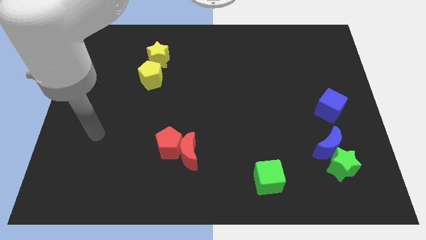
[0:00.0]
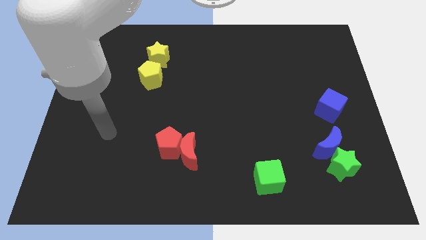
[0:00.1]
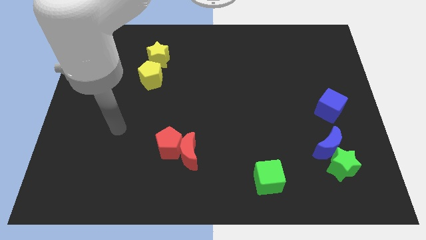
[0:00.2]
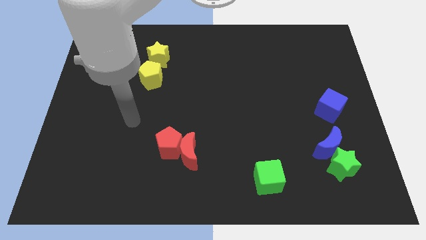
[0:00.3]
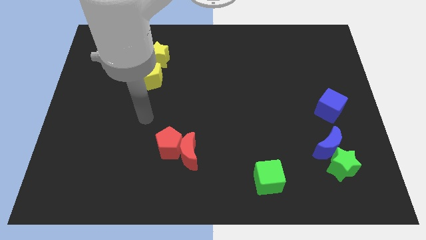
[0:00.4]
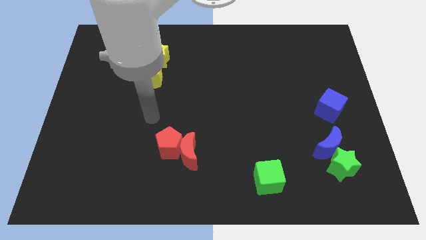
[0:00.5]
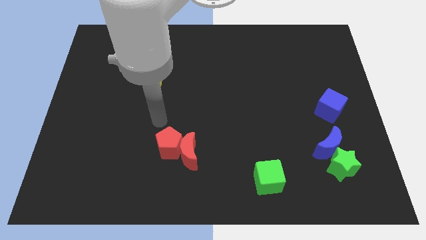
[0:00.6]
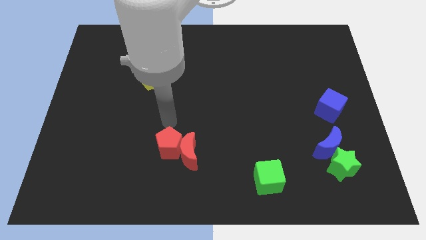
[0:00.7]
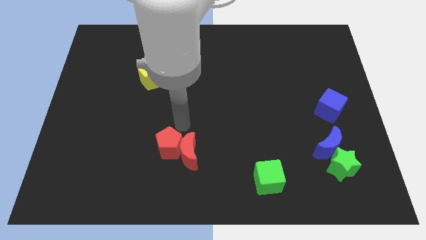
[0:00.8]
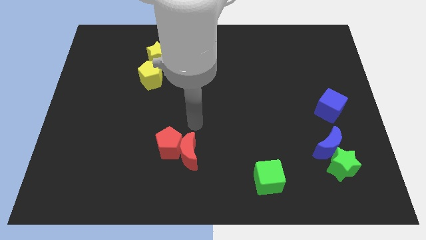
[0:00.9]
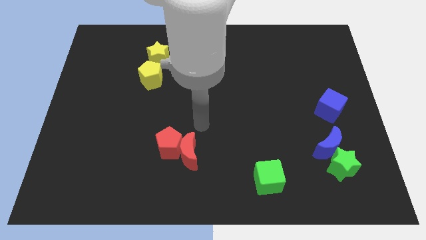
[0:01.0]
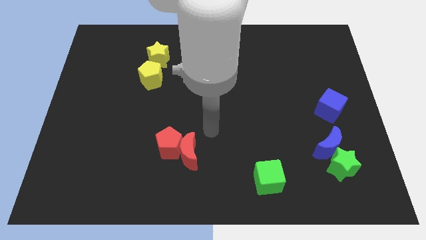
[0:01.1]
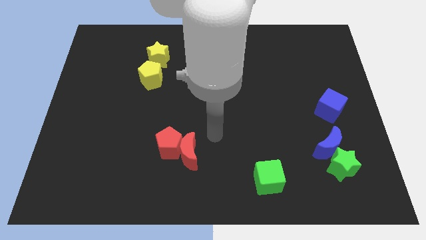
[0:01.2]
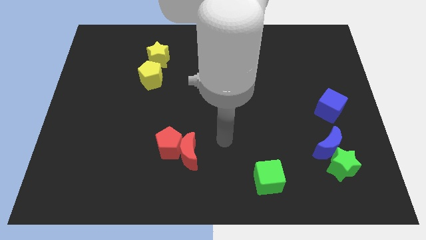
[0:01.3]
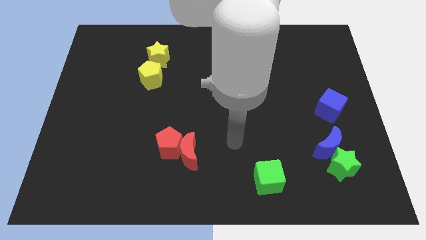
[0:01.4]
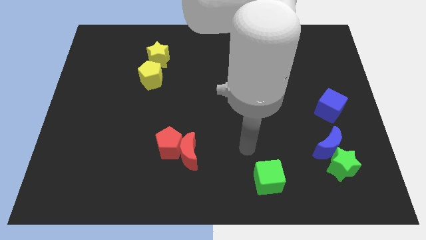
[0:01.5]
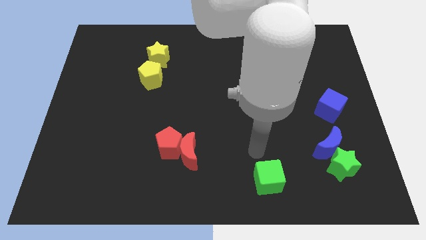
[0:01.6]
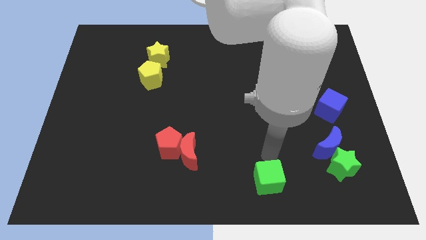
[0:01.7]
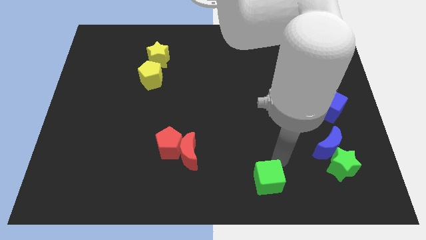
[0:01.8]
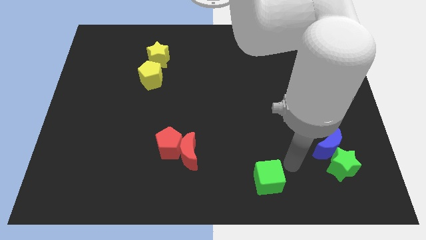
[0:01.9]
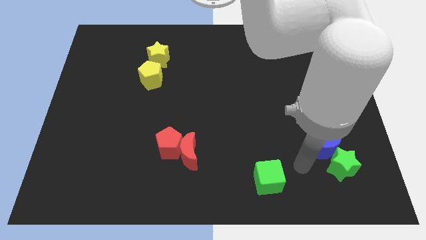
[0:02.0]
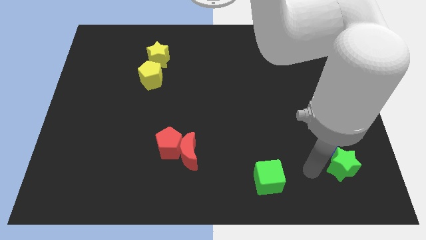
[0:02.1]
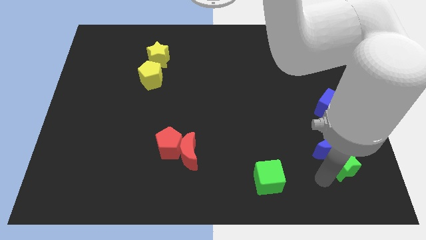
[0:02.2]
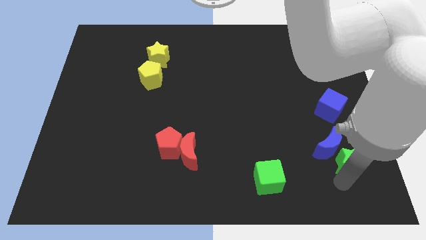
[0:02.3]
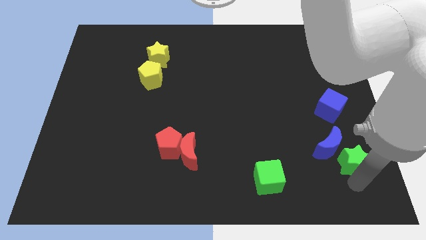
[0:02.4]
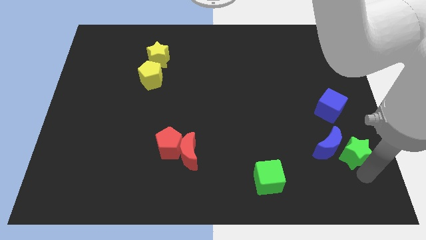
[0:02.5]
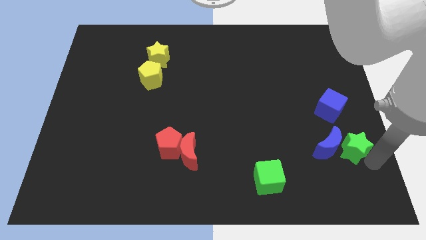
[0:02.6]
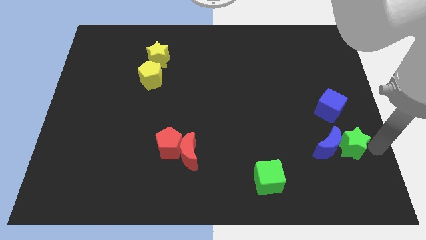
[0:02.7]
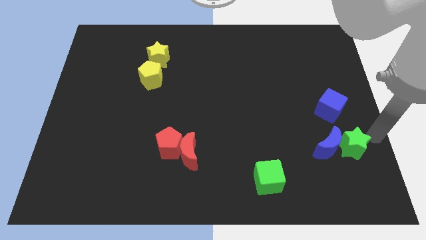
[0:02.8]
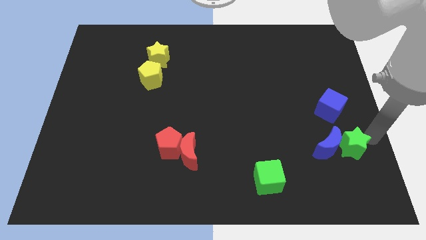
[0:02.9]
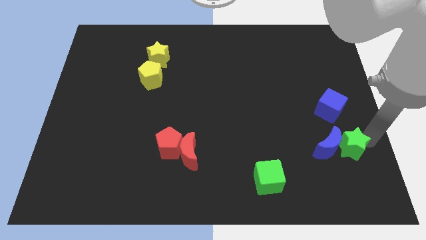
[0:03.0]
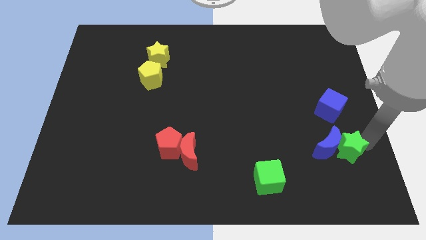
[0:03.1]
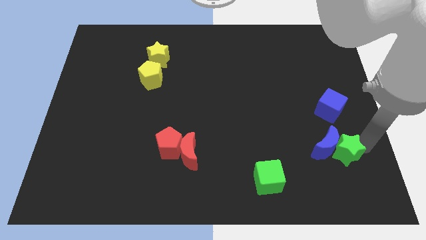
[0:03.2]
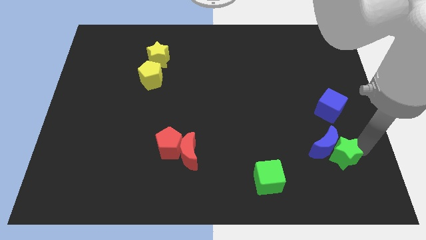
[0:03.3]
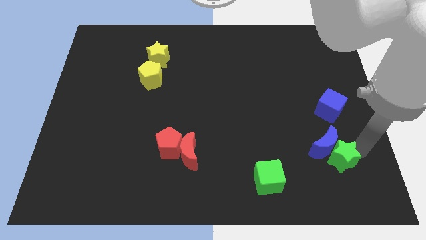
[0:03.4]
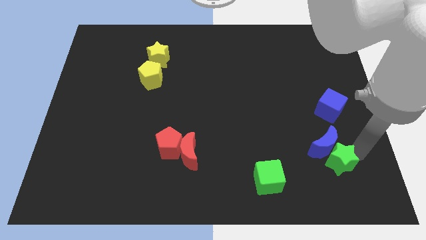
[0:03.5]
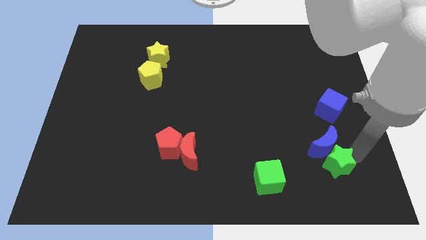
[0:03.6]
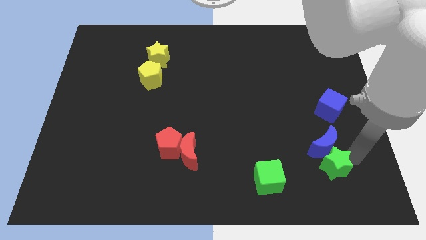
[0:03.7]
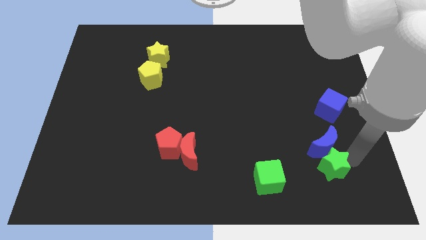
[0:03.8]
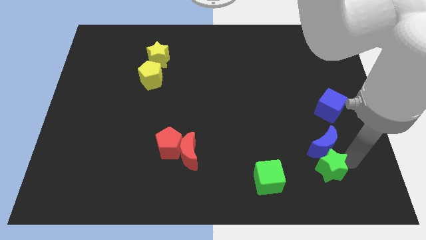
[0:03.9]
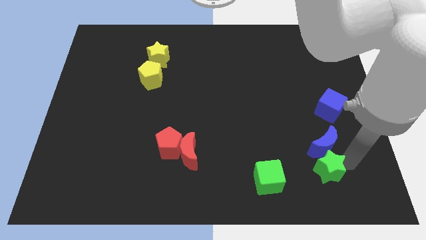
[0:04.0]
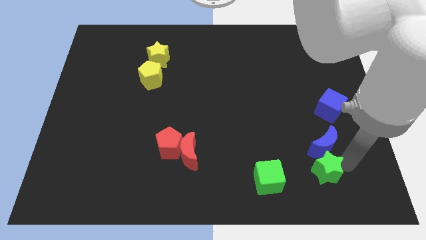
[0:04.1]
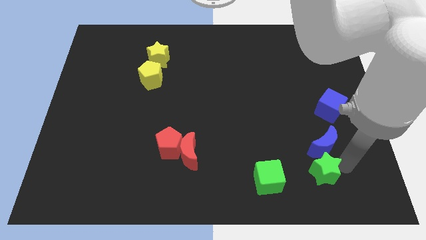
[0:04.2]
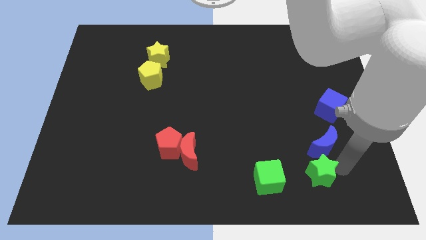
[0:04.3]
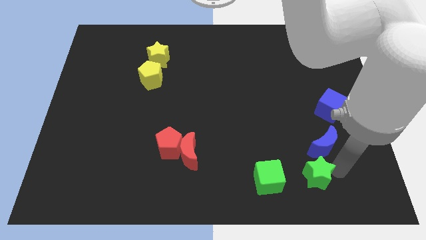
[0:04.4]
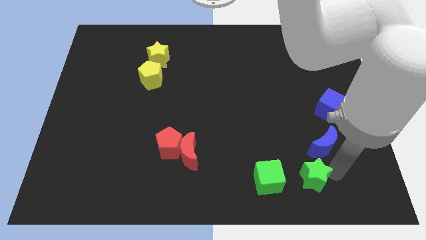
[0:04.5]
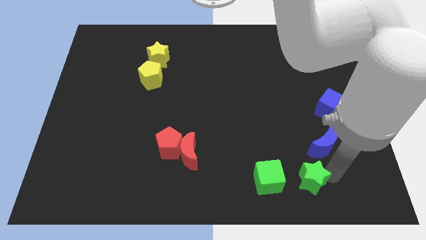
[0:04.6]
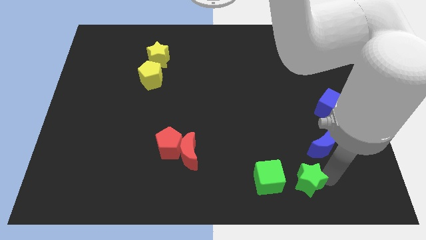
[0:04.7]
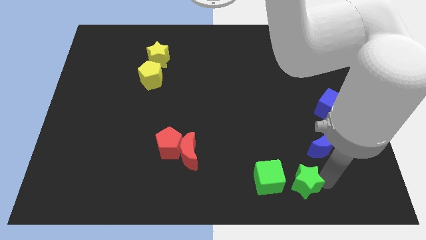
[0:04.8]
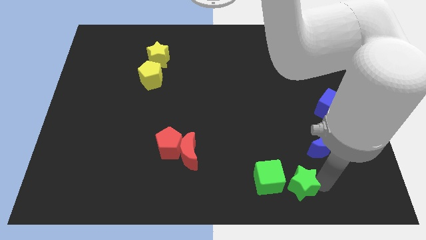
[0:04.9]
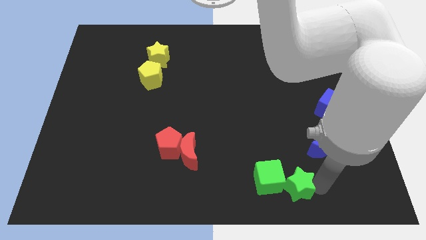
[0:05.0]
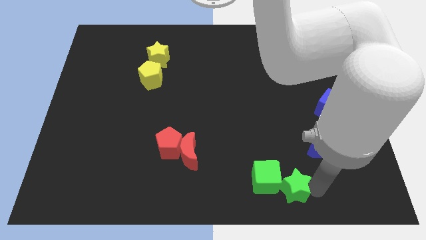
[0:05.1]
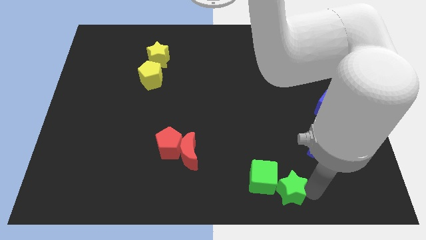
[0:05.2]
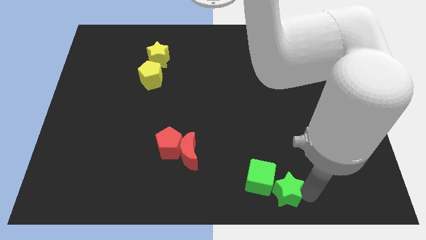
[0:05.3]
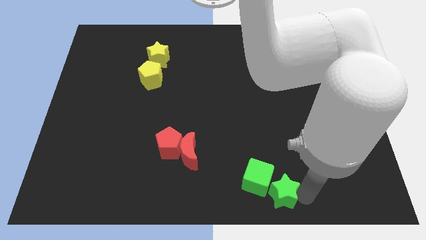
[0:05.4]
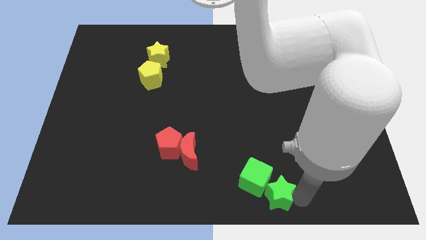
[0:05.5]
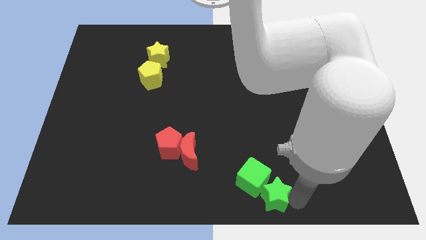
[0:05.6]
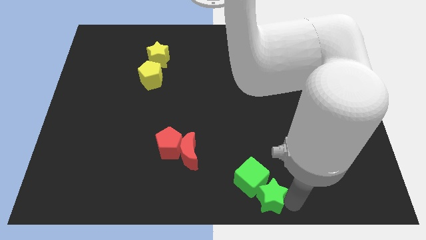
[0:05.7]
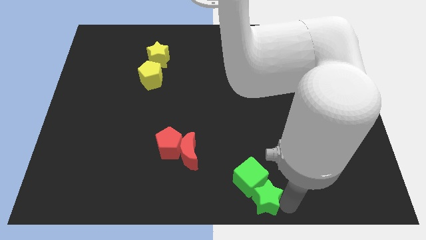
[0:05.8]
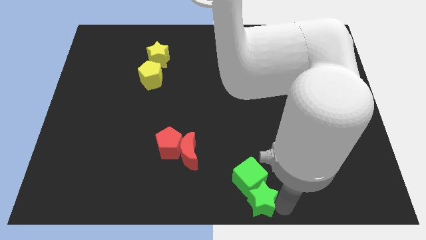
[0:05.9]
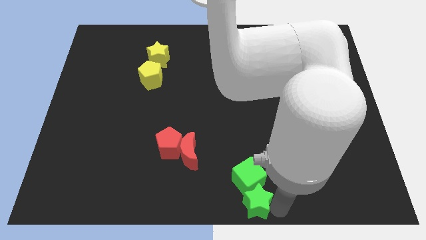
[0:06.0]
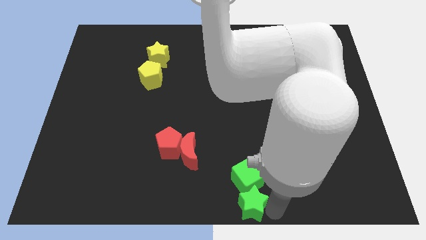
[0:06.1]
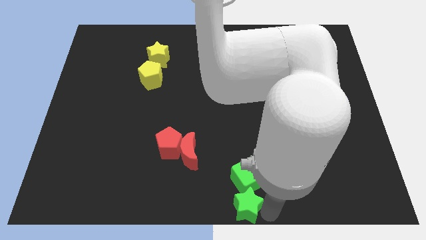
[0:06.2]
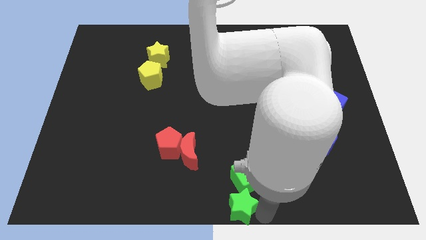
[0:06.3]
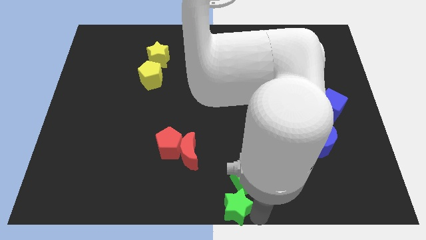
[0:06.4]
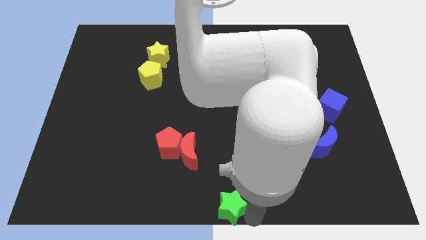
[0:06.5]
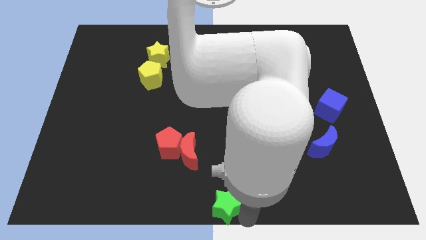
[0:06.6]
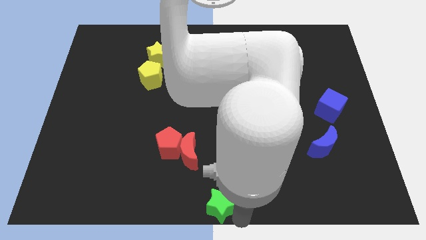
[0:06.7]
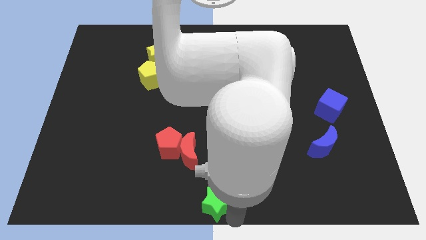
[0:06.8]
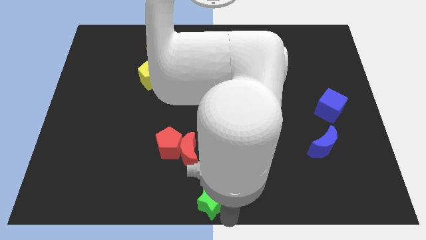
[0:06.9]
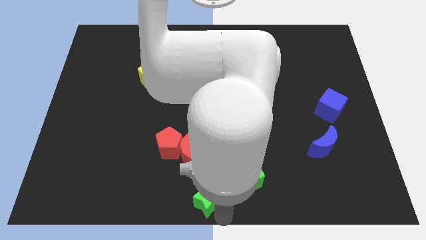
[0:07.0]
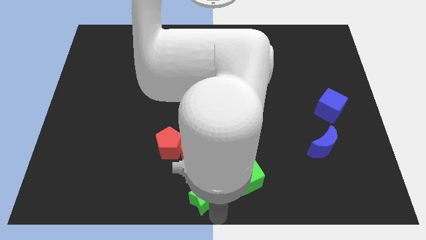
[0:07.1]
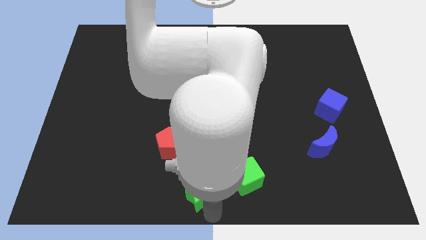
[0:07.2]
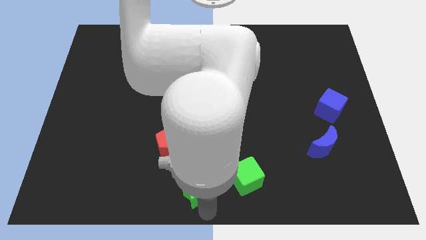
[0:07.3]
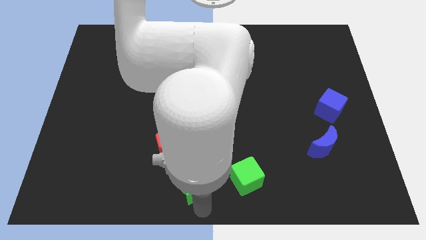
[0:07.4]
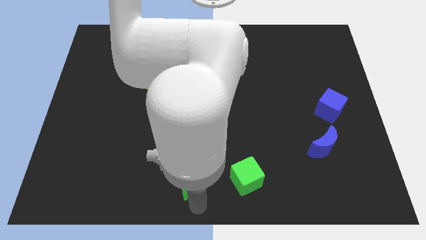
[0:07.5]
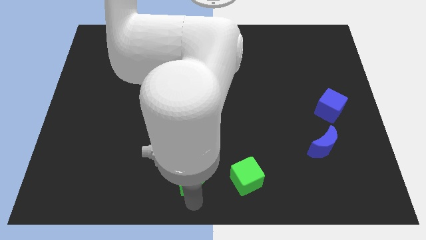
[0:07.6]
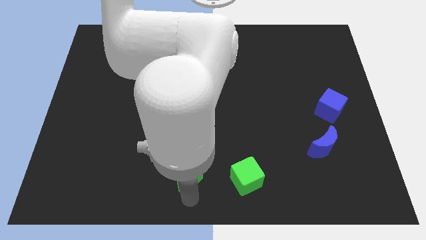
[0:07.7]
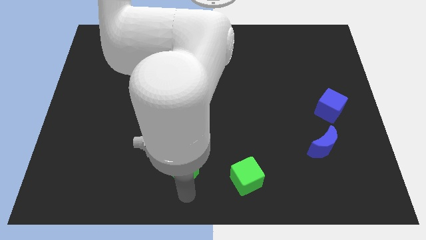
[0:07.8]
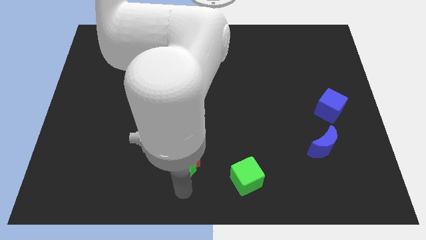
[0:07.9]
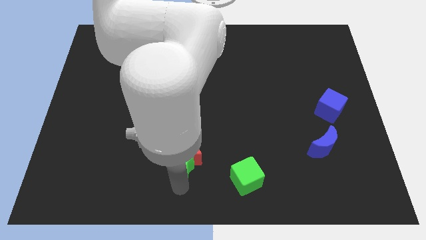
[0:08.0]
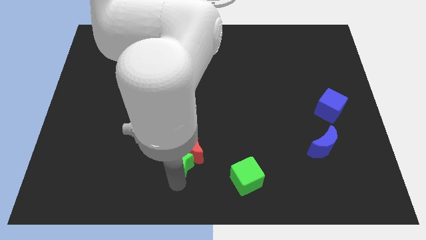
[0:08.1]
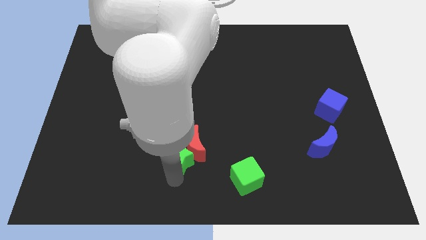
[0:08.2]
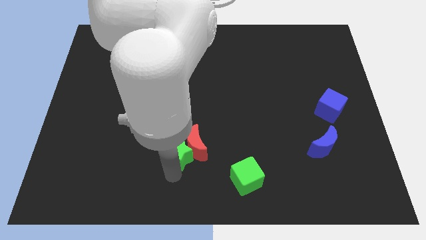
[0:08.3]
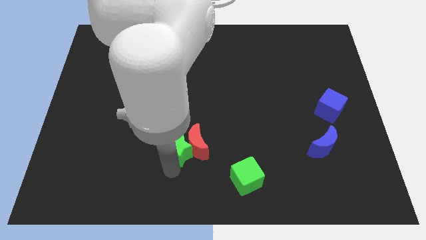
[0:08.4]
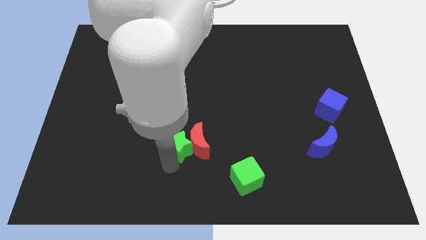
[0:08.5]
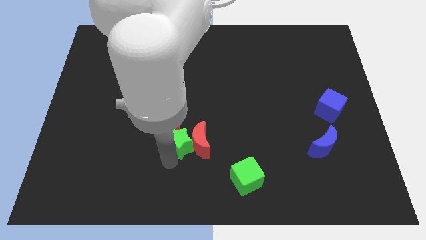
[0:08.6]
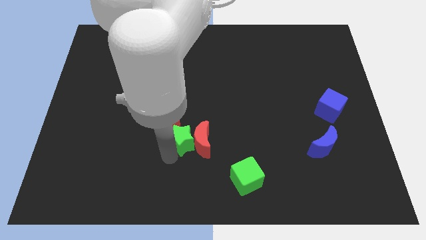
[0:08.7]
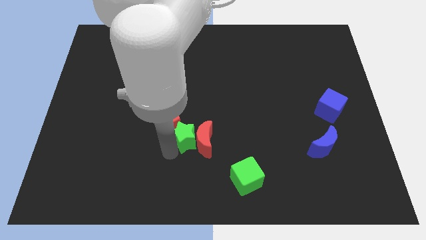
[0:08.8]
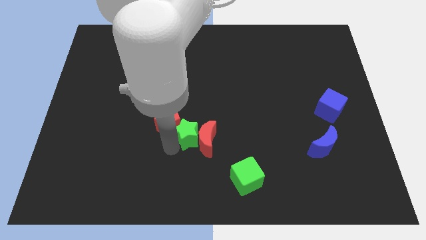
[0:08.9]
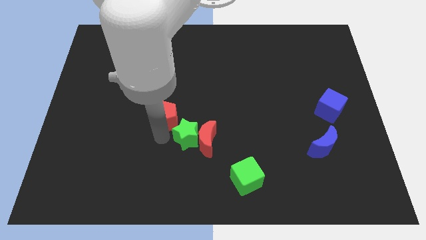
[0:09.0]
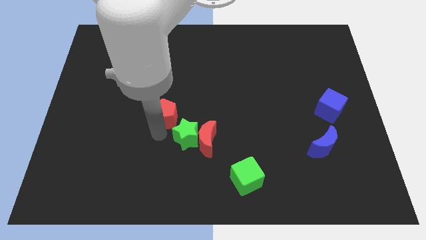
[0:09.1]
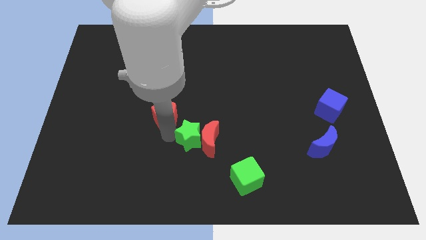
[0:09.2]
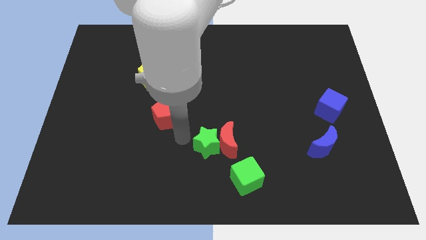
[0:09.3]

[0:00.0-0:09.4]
slide the green star to the top left of the green cube
